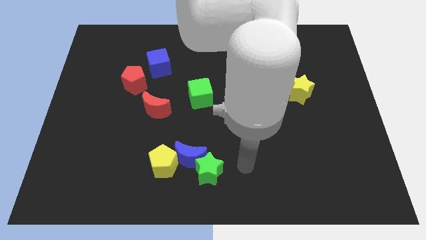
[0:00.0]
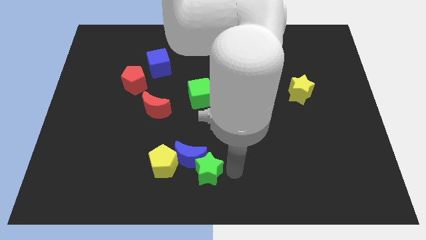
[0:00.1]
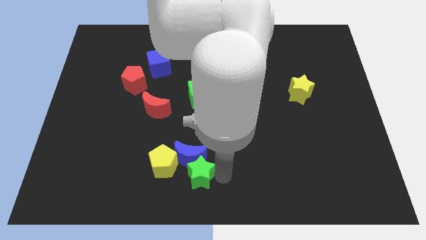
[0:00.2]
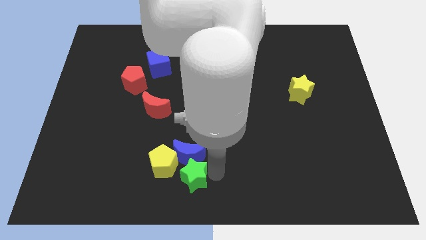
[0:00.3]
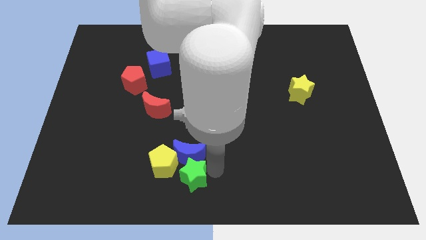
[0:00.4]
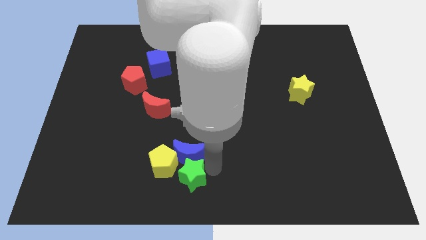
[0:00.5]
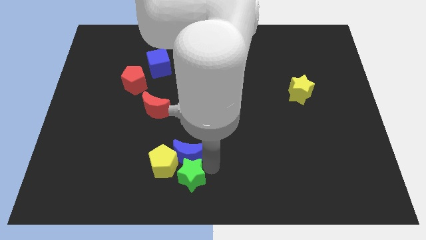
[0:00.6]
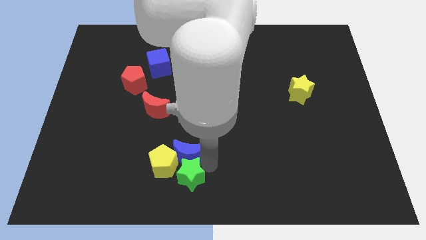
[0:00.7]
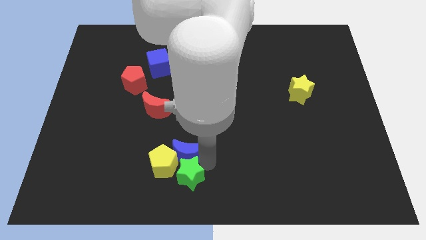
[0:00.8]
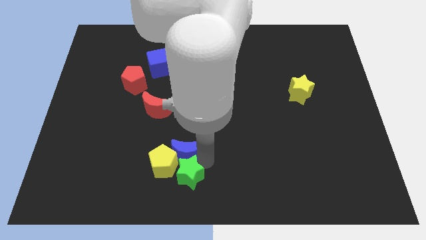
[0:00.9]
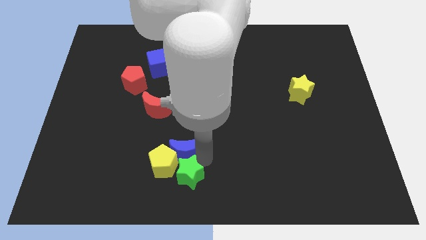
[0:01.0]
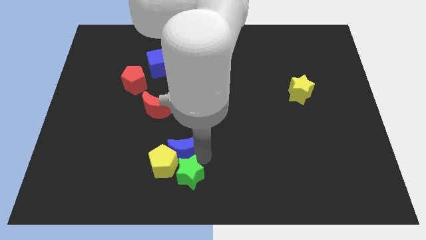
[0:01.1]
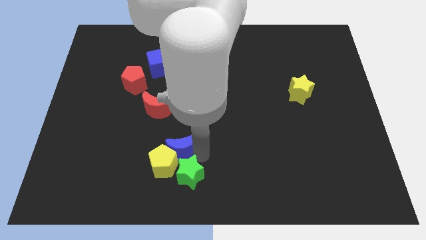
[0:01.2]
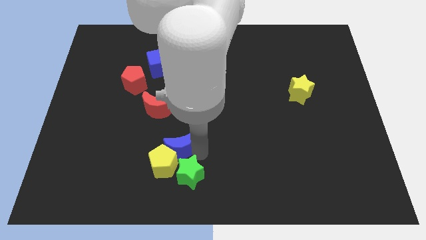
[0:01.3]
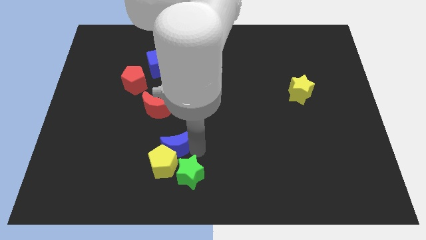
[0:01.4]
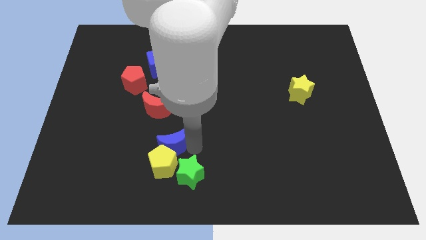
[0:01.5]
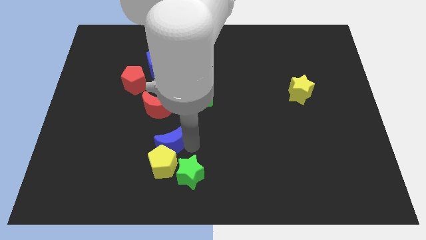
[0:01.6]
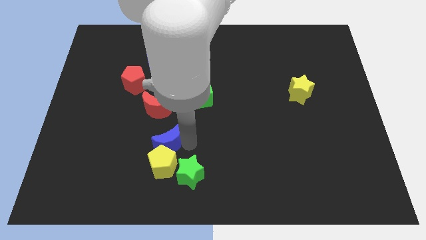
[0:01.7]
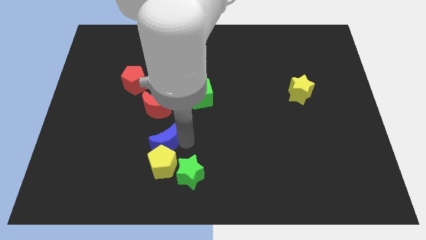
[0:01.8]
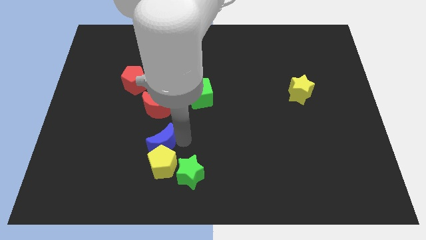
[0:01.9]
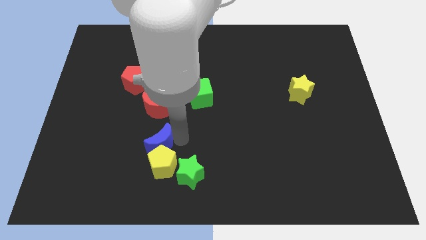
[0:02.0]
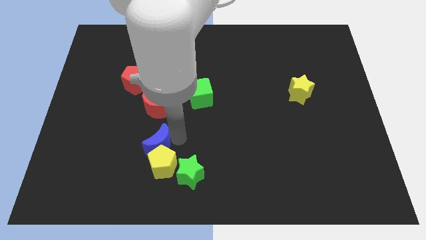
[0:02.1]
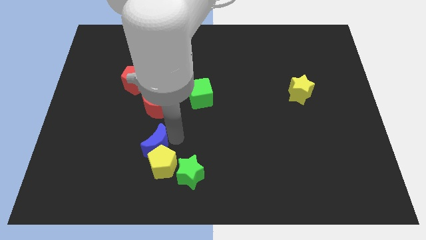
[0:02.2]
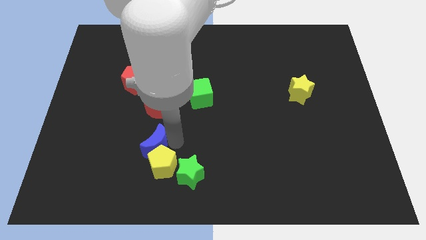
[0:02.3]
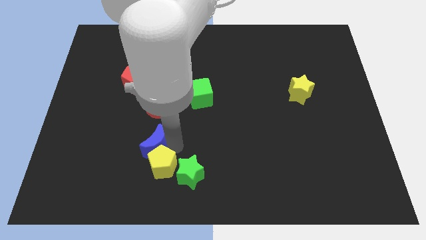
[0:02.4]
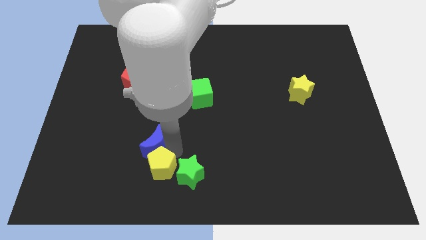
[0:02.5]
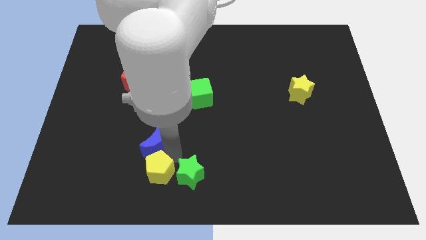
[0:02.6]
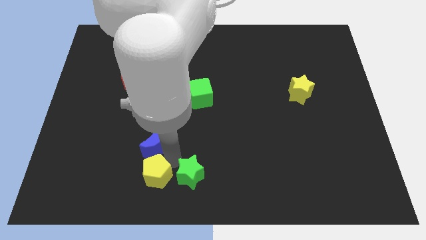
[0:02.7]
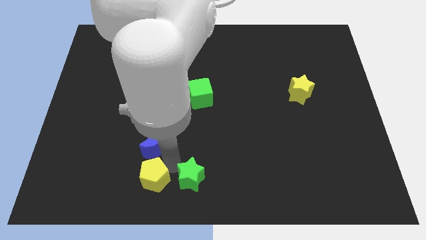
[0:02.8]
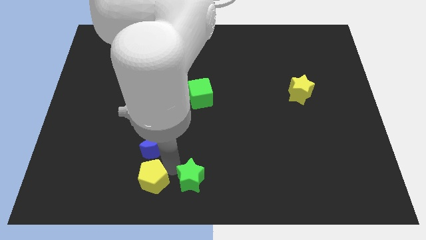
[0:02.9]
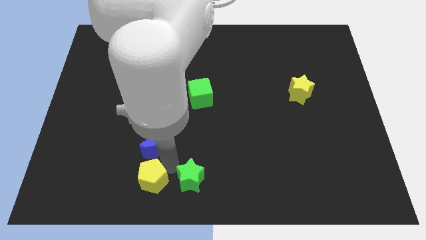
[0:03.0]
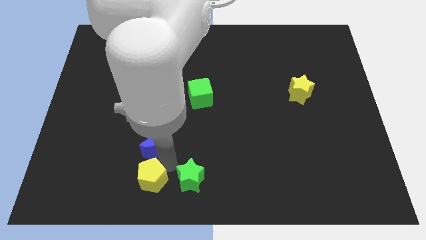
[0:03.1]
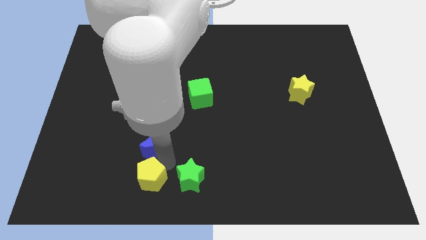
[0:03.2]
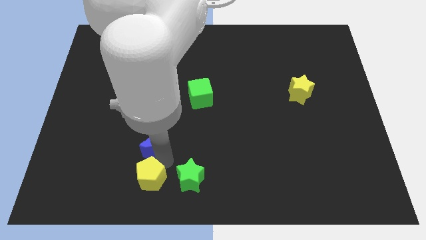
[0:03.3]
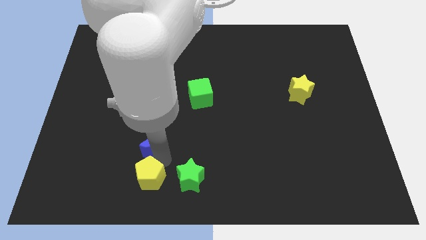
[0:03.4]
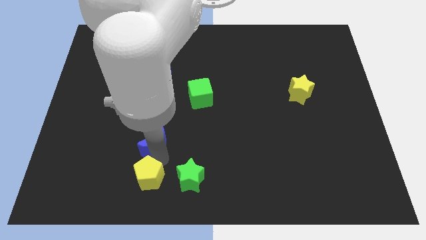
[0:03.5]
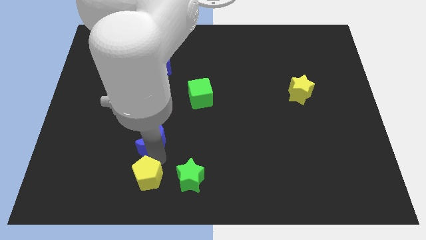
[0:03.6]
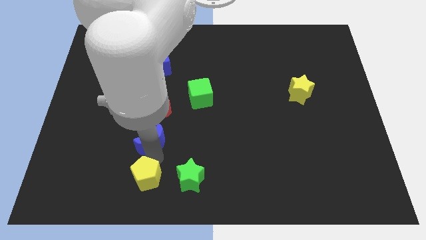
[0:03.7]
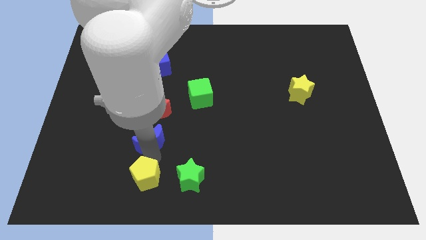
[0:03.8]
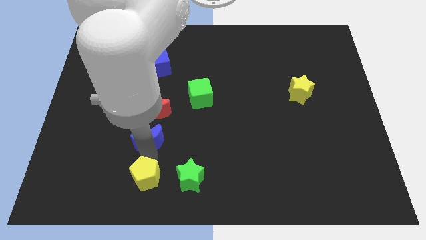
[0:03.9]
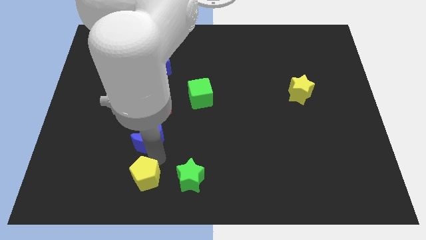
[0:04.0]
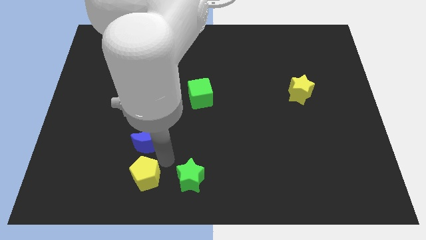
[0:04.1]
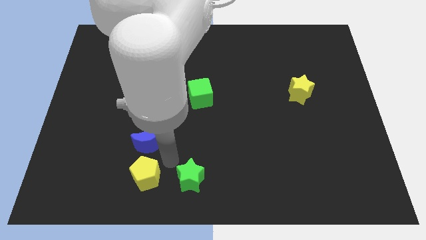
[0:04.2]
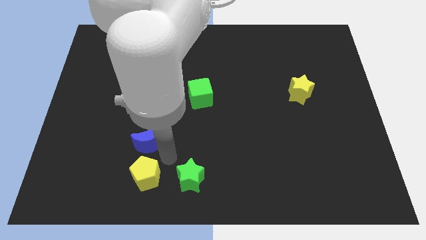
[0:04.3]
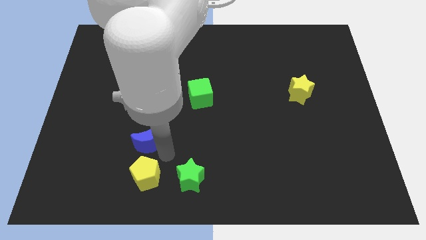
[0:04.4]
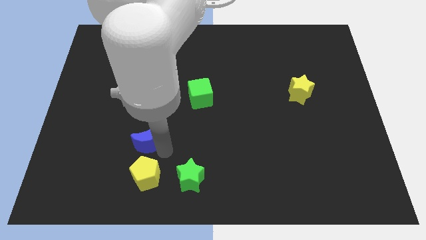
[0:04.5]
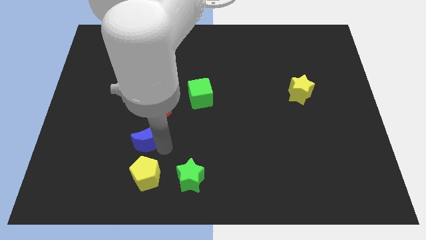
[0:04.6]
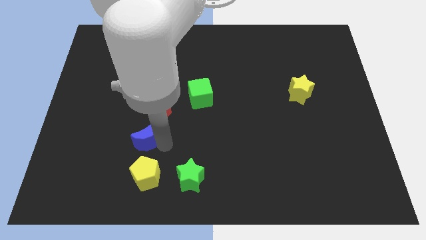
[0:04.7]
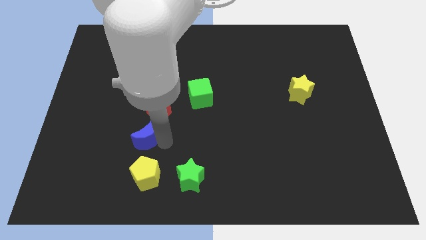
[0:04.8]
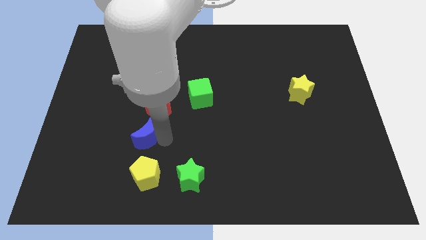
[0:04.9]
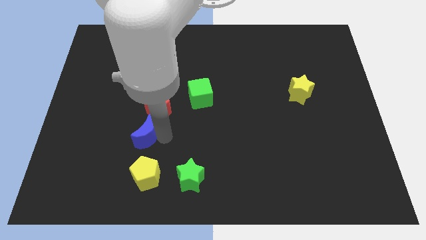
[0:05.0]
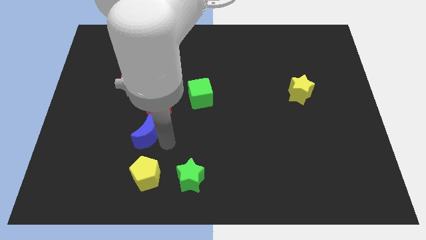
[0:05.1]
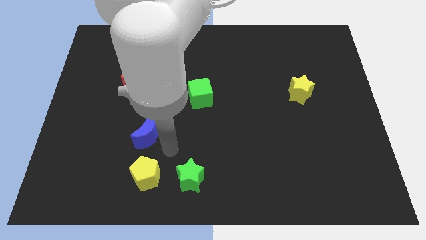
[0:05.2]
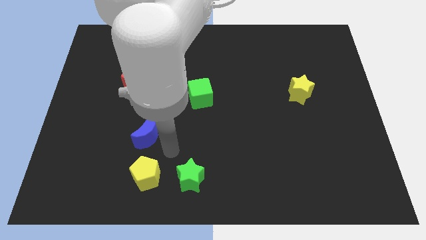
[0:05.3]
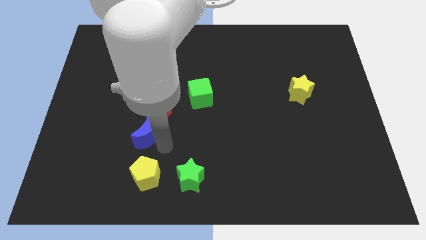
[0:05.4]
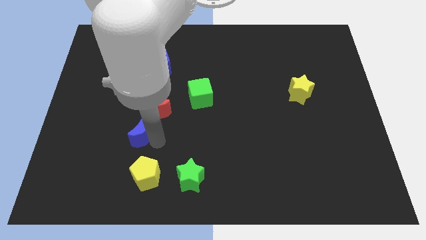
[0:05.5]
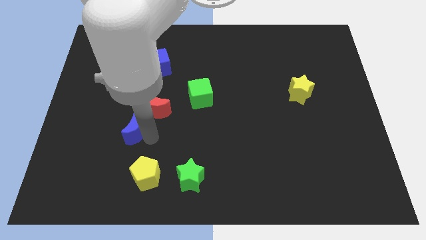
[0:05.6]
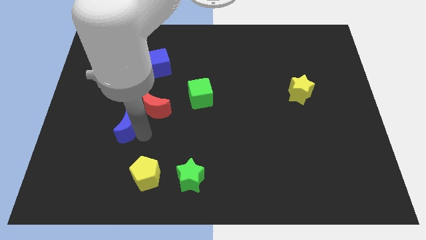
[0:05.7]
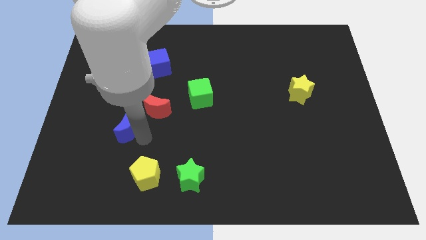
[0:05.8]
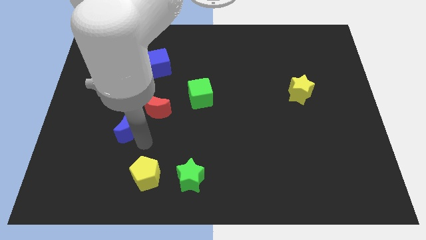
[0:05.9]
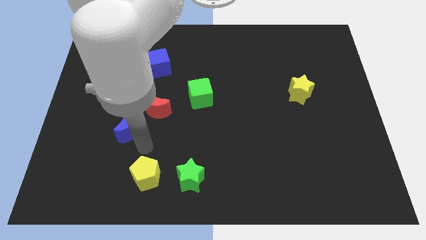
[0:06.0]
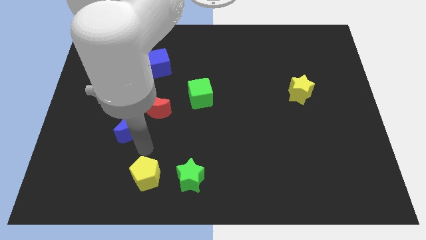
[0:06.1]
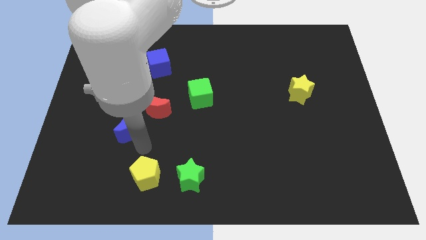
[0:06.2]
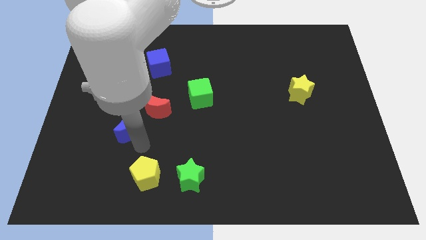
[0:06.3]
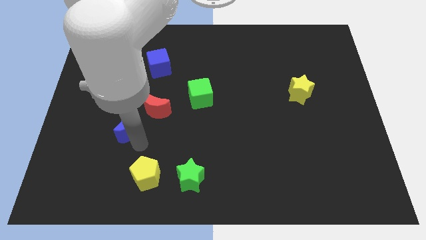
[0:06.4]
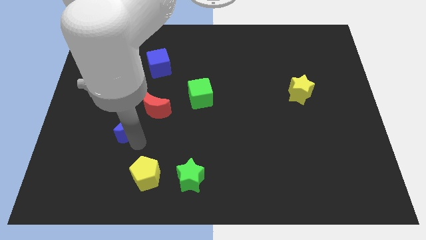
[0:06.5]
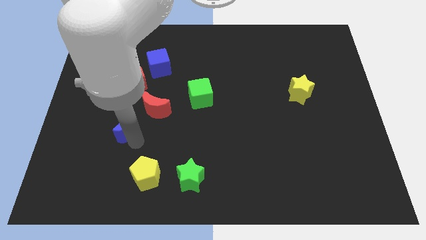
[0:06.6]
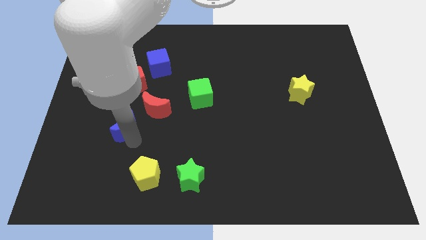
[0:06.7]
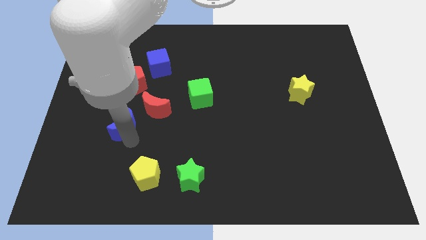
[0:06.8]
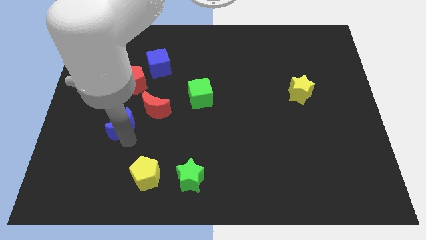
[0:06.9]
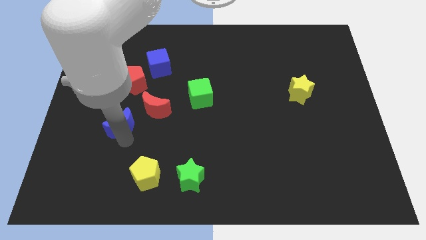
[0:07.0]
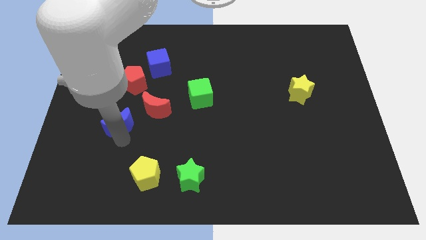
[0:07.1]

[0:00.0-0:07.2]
put the blue moon to the left of the red moon
